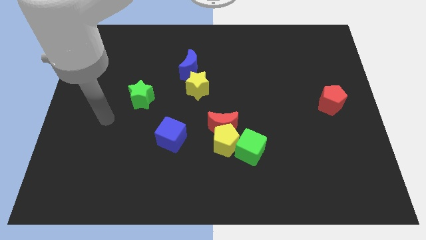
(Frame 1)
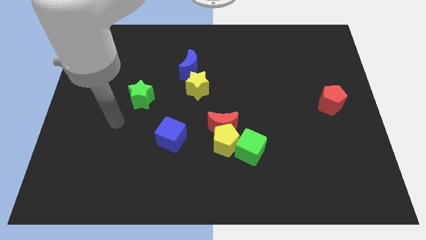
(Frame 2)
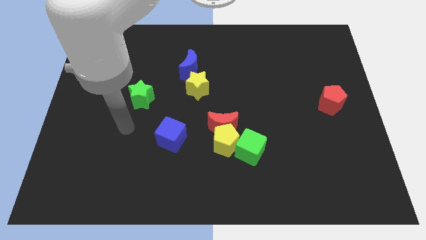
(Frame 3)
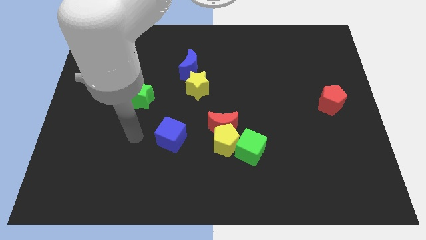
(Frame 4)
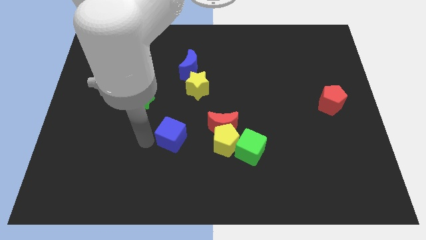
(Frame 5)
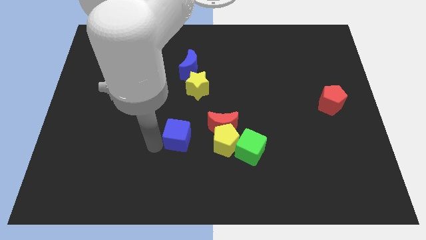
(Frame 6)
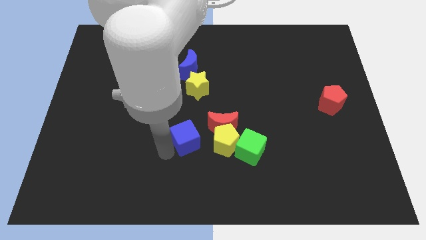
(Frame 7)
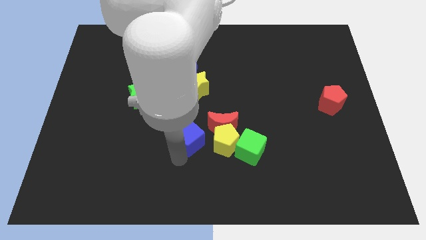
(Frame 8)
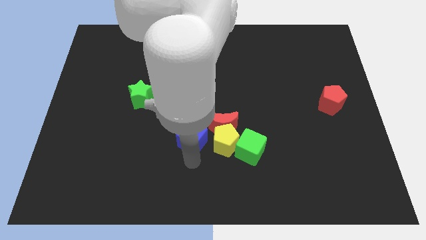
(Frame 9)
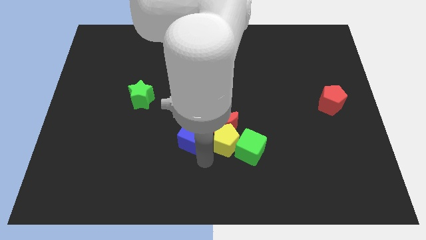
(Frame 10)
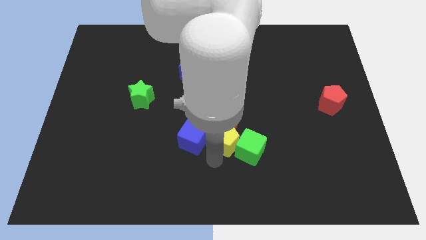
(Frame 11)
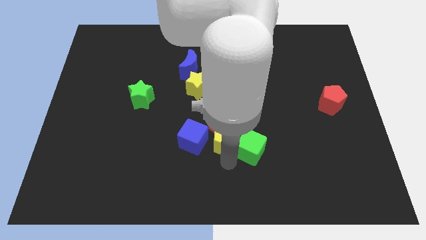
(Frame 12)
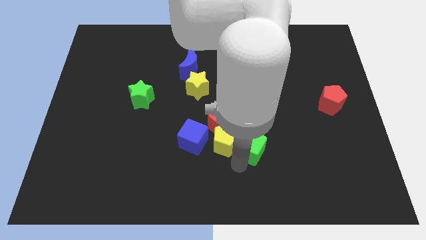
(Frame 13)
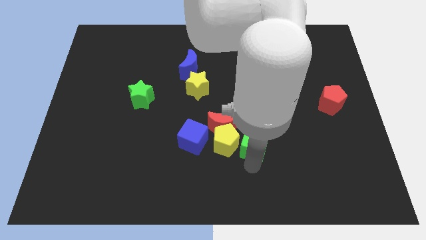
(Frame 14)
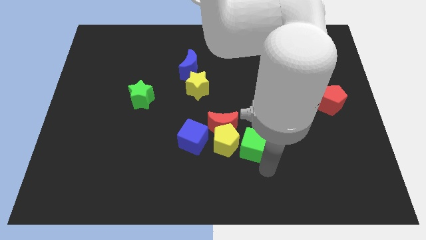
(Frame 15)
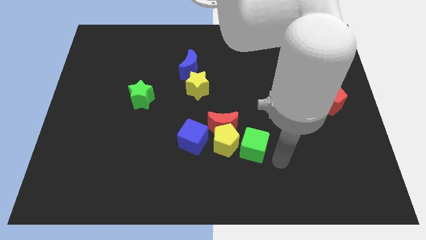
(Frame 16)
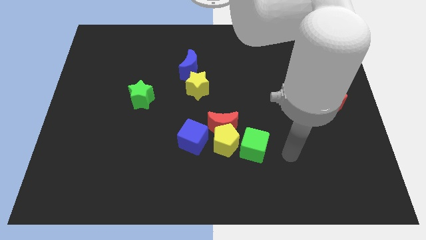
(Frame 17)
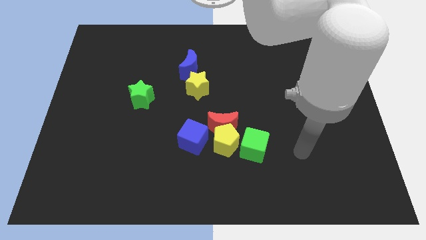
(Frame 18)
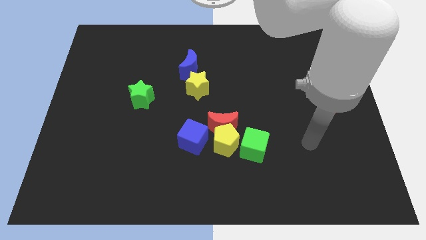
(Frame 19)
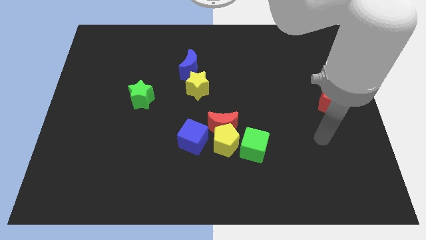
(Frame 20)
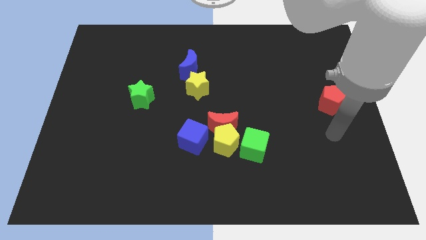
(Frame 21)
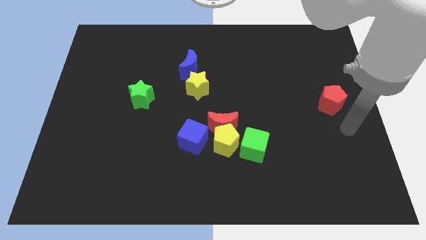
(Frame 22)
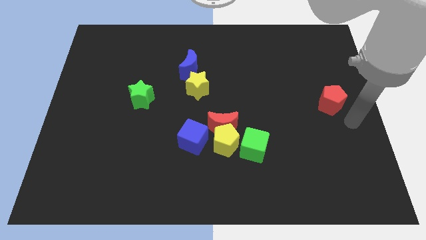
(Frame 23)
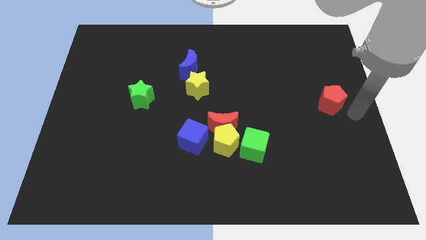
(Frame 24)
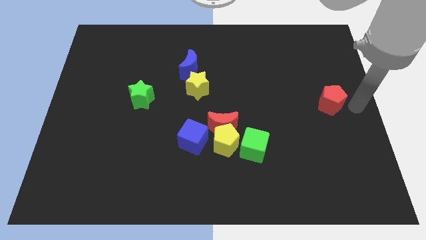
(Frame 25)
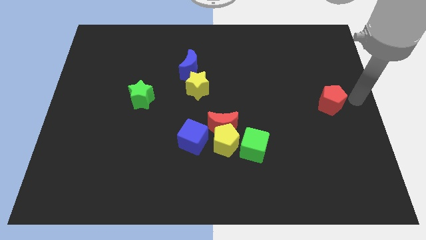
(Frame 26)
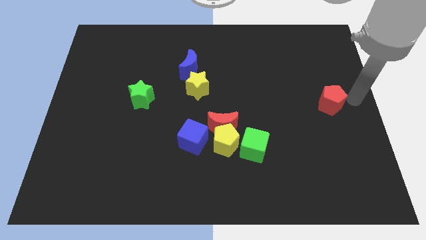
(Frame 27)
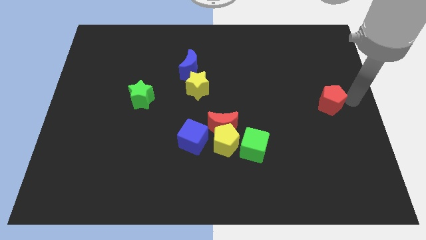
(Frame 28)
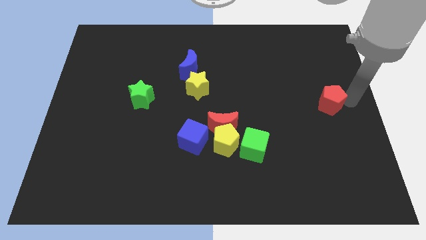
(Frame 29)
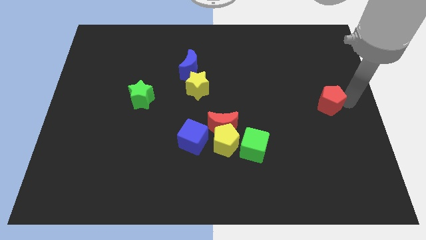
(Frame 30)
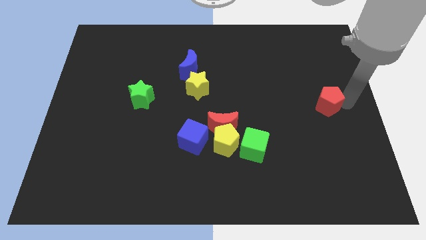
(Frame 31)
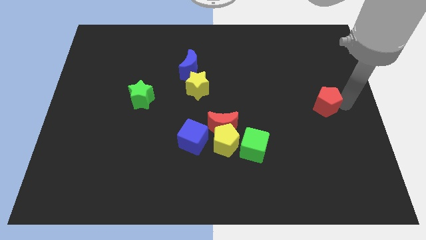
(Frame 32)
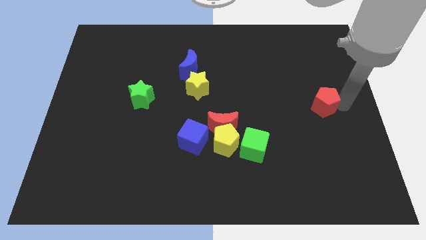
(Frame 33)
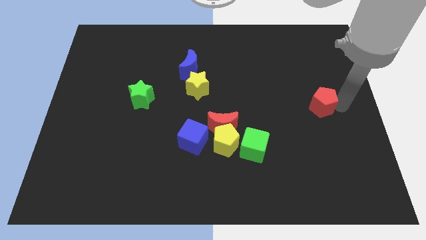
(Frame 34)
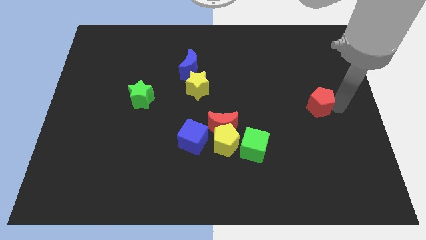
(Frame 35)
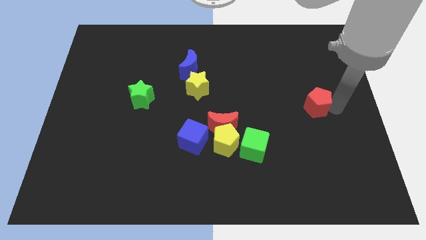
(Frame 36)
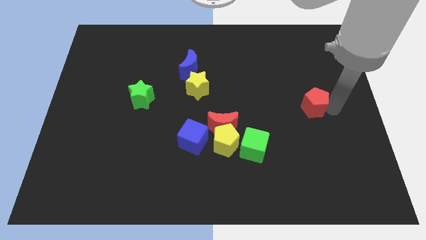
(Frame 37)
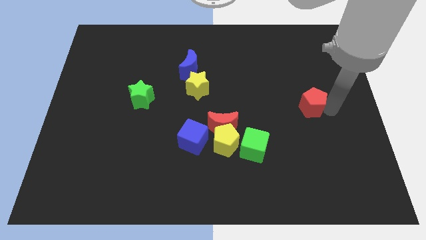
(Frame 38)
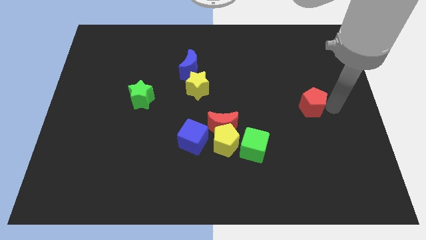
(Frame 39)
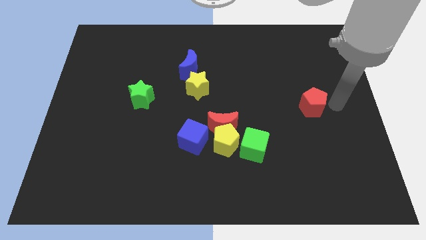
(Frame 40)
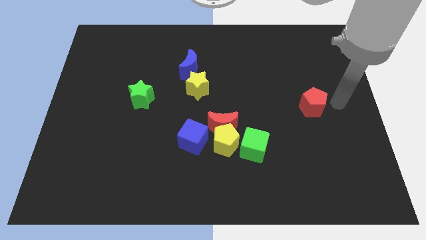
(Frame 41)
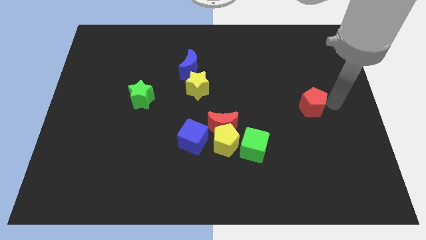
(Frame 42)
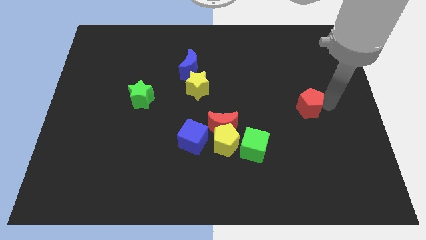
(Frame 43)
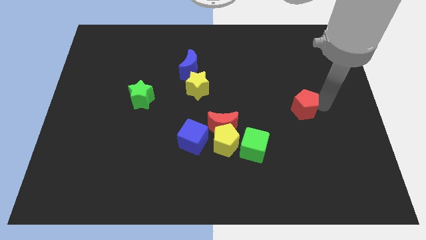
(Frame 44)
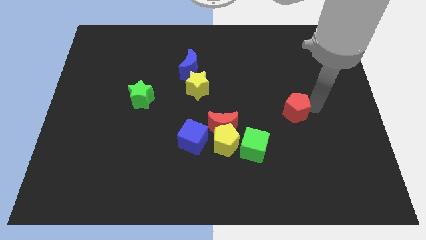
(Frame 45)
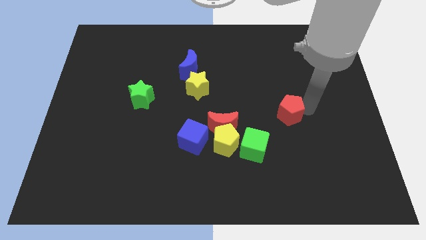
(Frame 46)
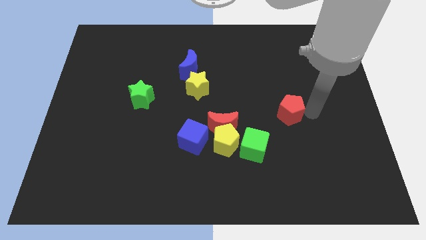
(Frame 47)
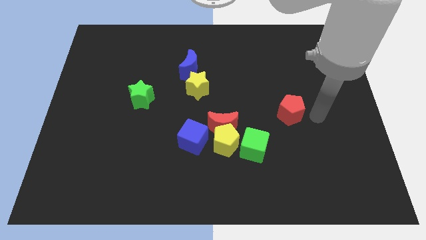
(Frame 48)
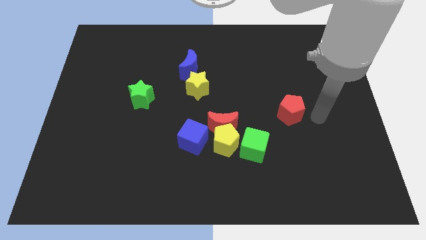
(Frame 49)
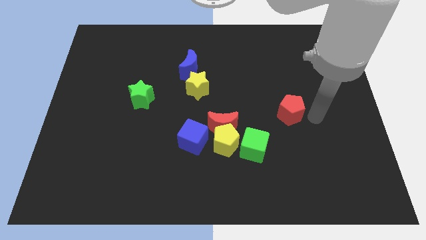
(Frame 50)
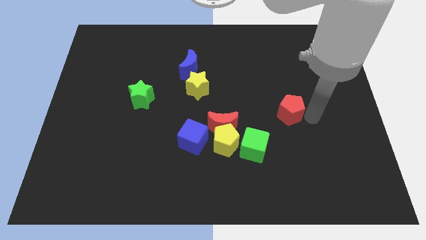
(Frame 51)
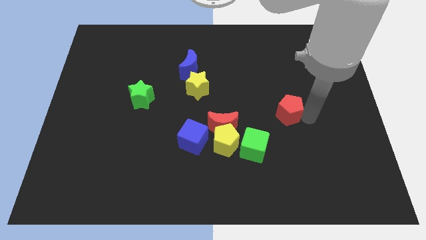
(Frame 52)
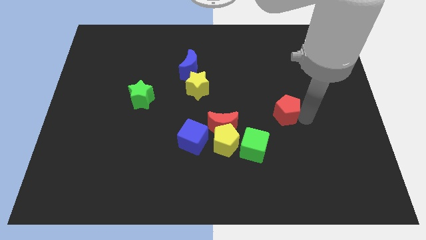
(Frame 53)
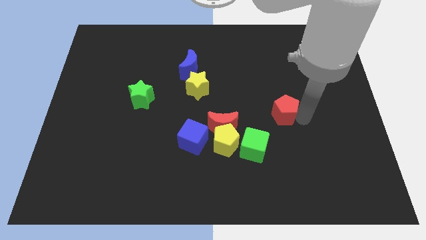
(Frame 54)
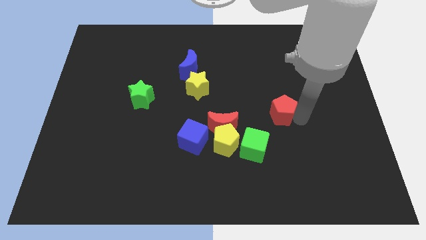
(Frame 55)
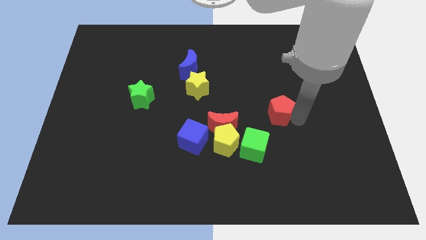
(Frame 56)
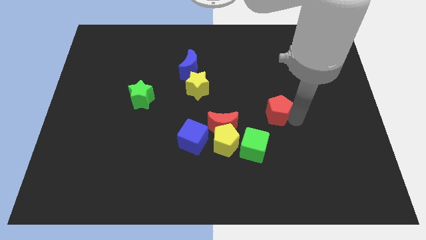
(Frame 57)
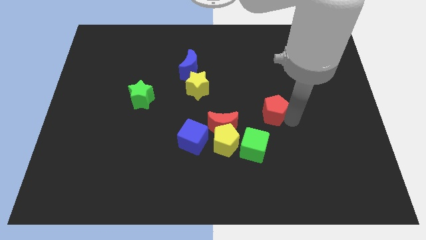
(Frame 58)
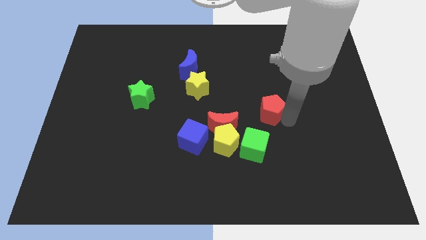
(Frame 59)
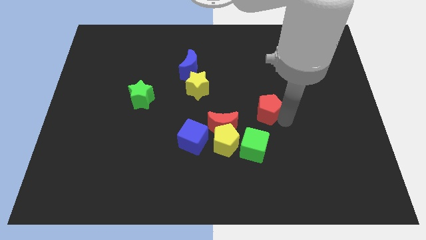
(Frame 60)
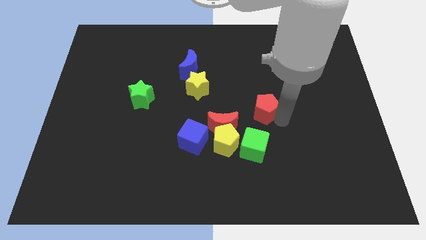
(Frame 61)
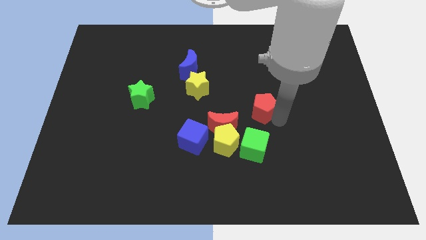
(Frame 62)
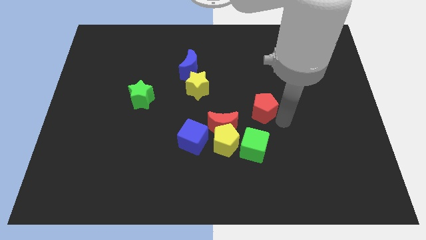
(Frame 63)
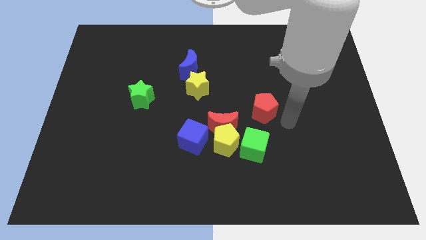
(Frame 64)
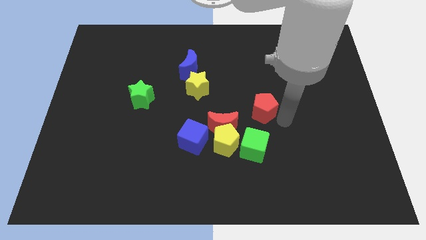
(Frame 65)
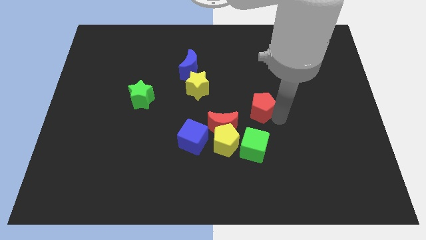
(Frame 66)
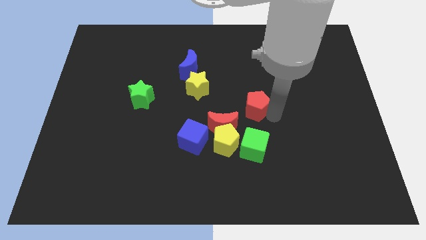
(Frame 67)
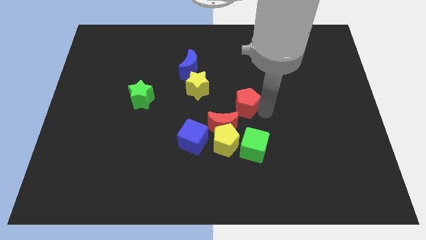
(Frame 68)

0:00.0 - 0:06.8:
move the red pentagon to the left

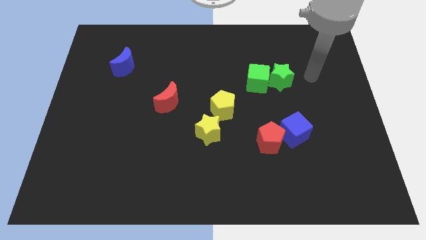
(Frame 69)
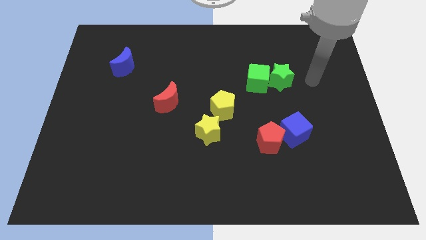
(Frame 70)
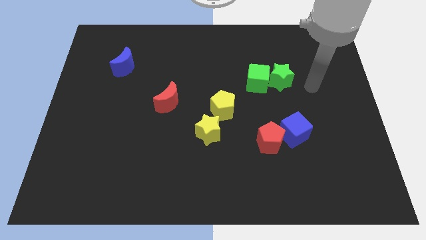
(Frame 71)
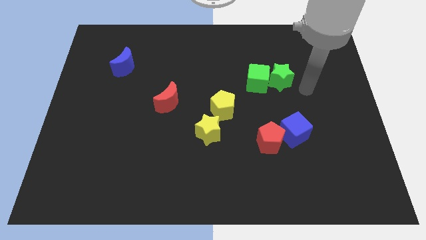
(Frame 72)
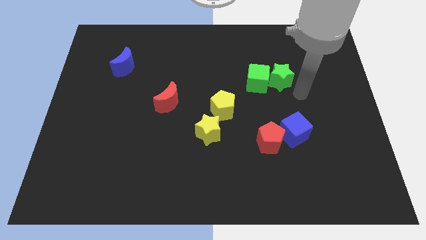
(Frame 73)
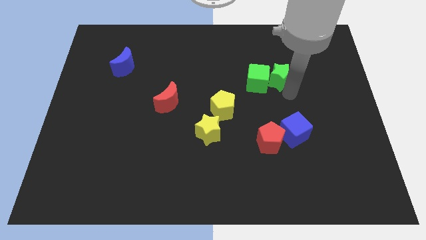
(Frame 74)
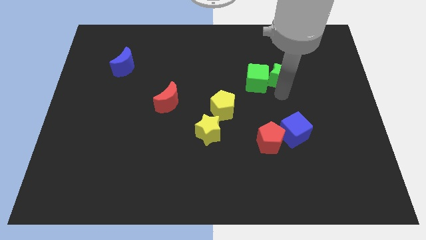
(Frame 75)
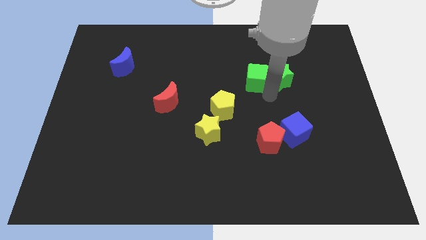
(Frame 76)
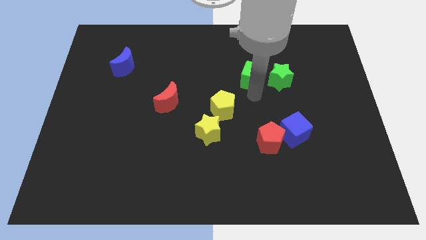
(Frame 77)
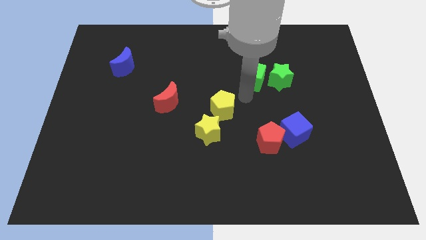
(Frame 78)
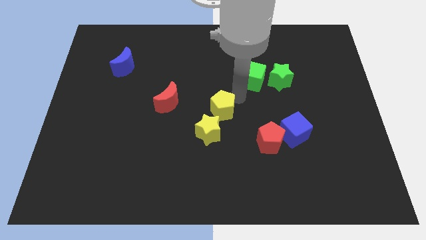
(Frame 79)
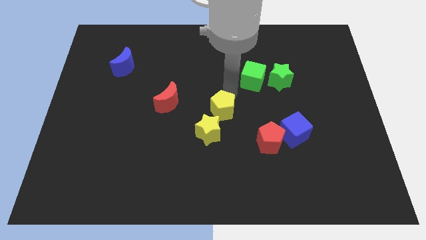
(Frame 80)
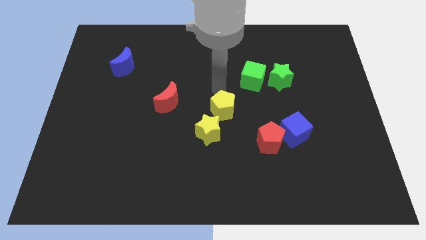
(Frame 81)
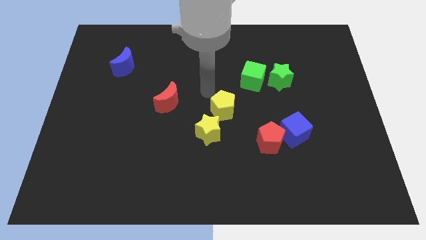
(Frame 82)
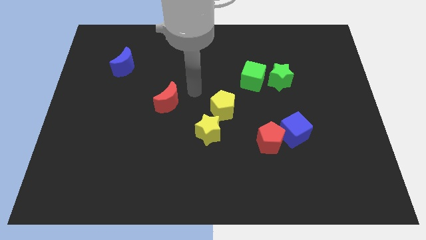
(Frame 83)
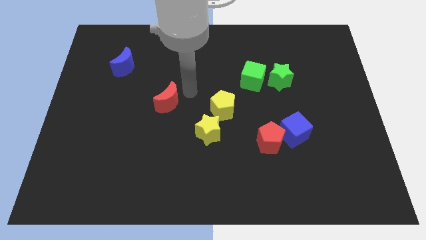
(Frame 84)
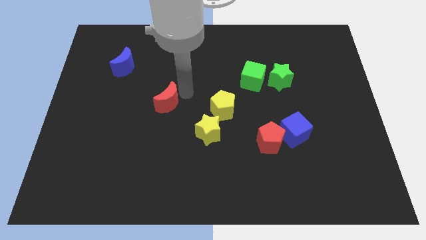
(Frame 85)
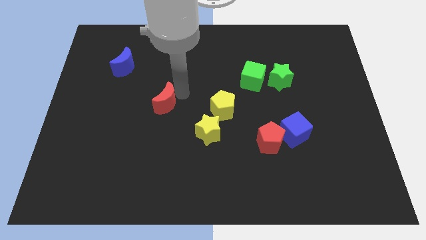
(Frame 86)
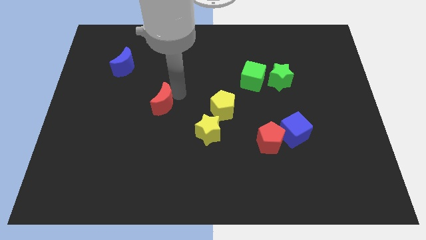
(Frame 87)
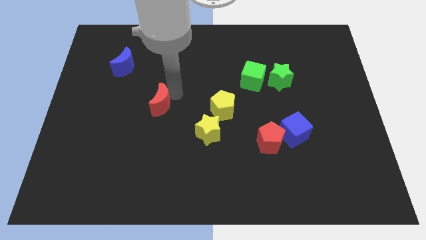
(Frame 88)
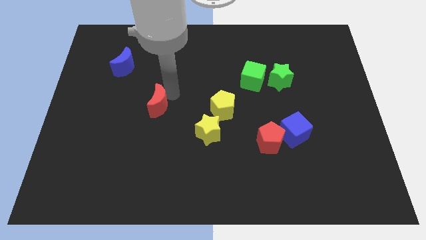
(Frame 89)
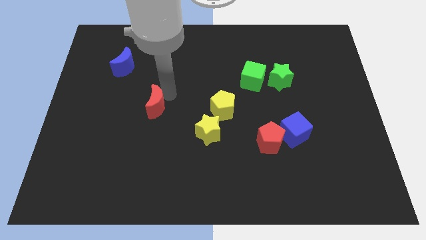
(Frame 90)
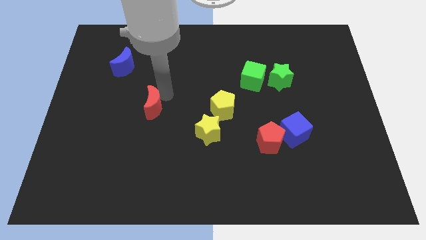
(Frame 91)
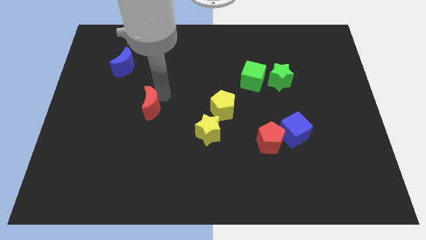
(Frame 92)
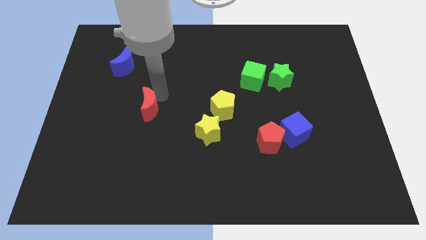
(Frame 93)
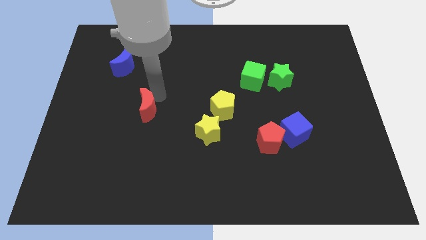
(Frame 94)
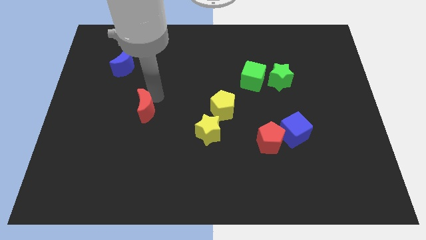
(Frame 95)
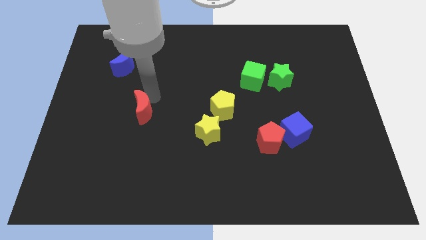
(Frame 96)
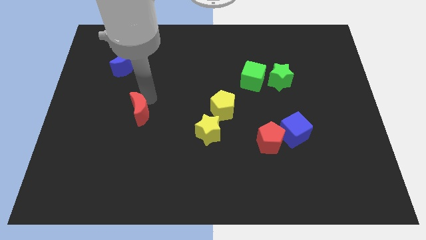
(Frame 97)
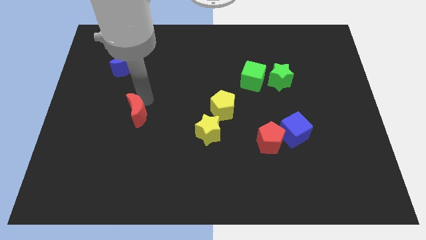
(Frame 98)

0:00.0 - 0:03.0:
slightly move the red moon down and left diagonally
